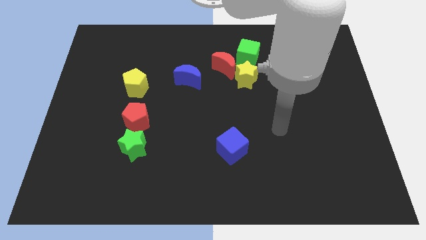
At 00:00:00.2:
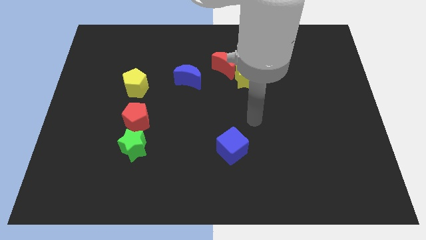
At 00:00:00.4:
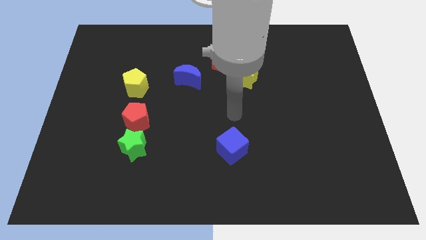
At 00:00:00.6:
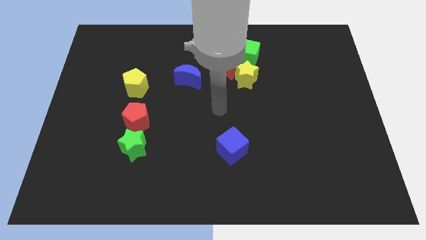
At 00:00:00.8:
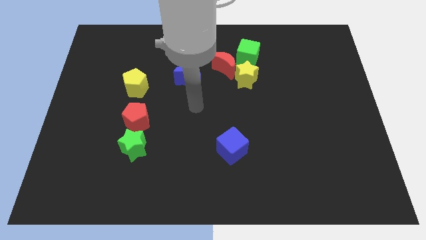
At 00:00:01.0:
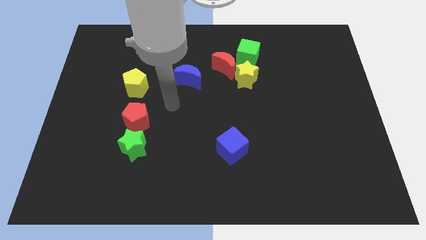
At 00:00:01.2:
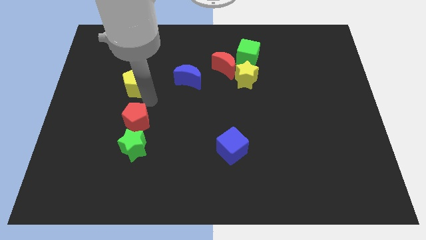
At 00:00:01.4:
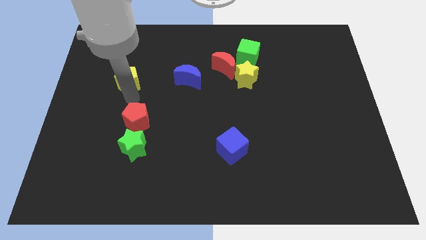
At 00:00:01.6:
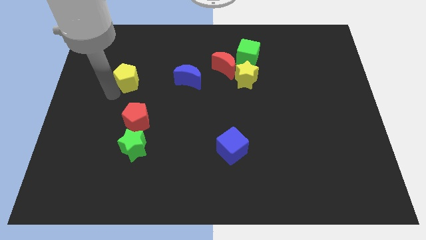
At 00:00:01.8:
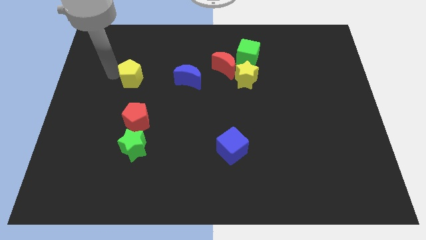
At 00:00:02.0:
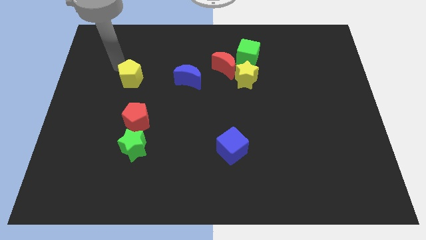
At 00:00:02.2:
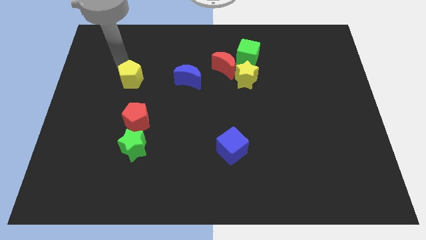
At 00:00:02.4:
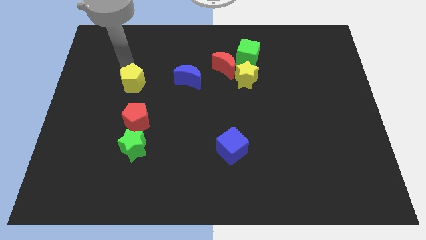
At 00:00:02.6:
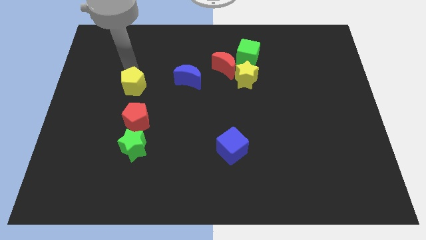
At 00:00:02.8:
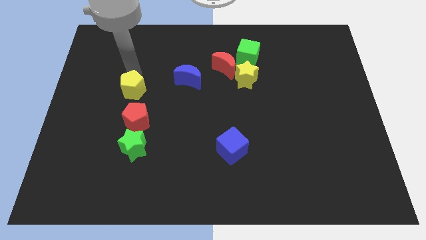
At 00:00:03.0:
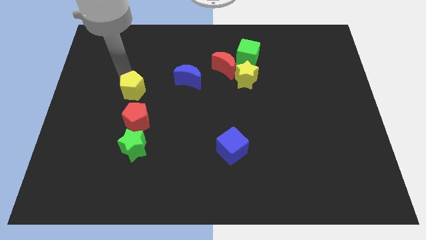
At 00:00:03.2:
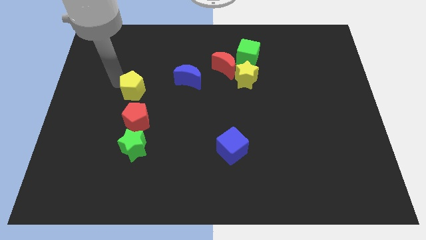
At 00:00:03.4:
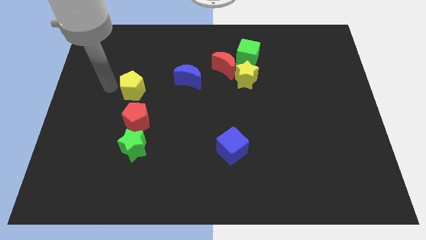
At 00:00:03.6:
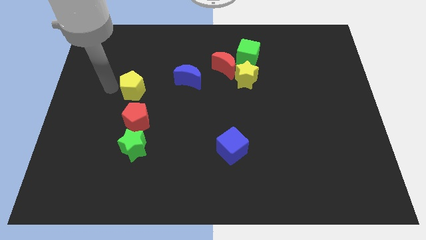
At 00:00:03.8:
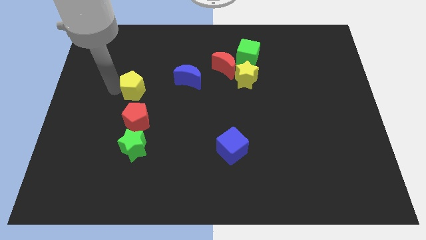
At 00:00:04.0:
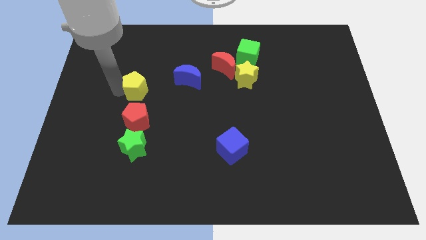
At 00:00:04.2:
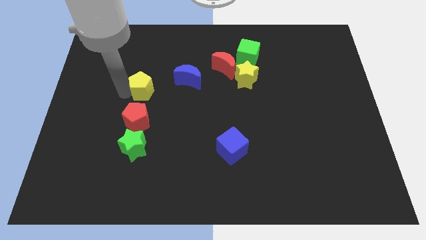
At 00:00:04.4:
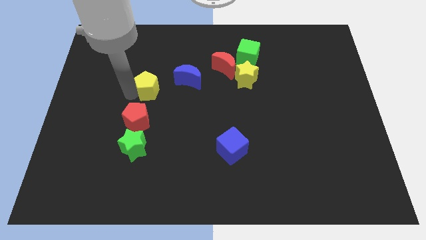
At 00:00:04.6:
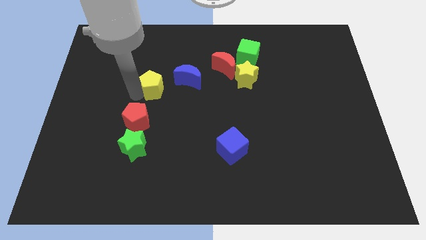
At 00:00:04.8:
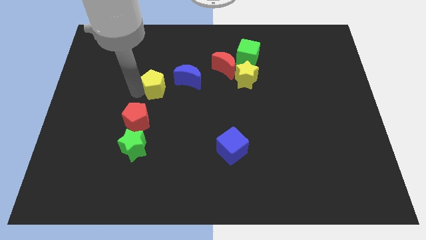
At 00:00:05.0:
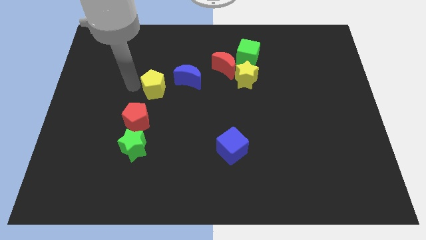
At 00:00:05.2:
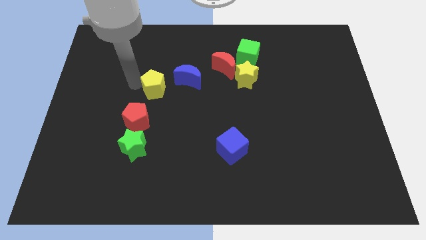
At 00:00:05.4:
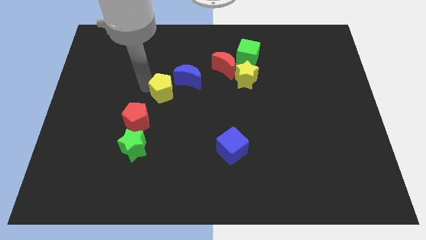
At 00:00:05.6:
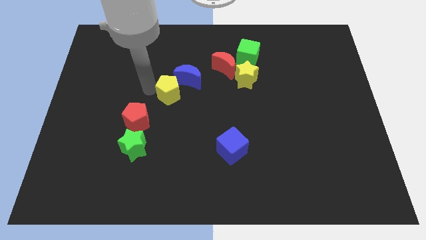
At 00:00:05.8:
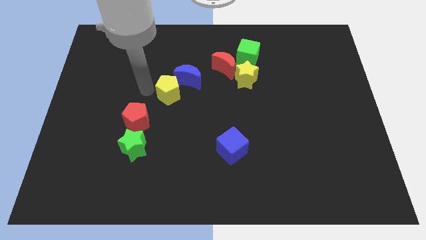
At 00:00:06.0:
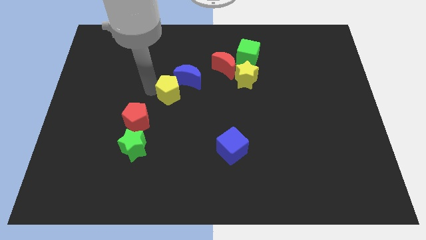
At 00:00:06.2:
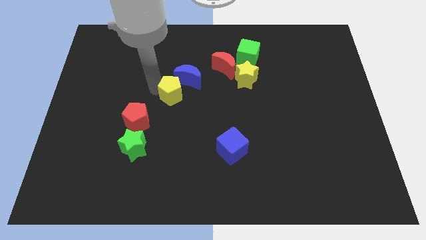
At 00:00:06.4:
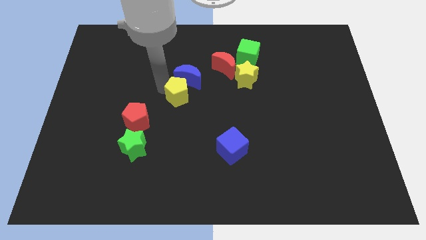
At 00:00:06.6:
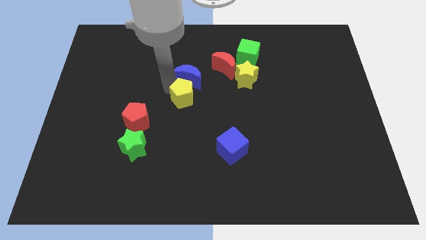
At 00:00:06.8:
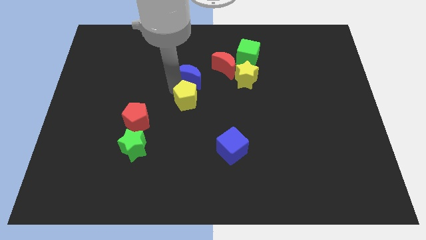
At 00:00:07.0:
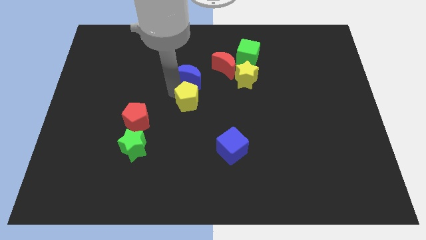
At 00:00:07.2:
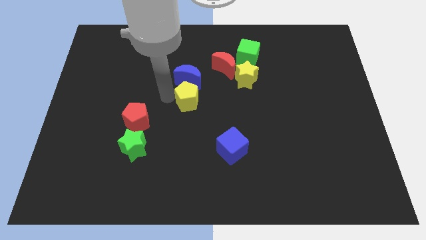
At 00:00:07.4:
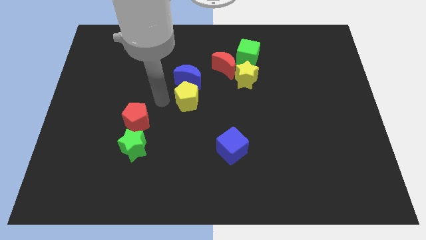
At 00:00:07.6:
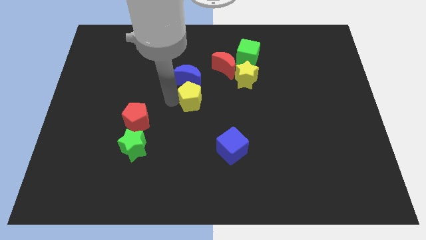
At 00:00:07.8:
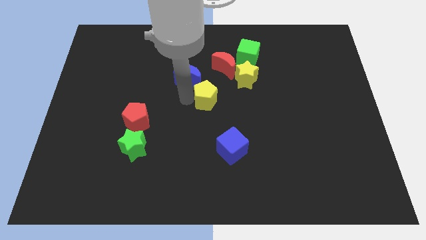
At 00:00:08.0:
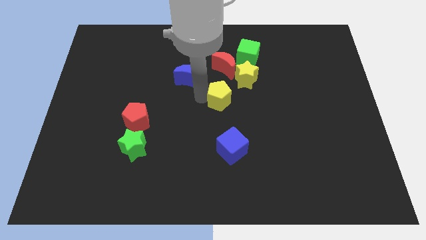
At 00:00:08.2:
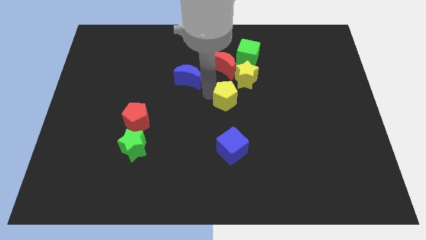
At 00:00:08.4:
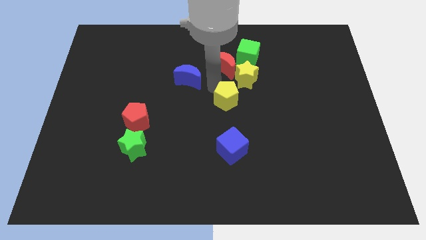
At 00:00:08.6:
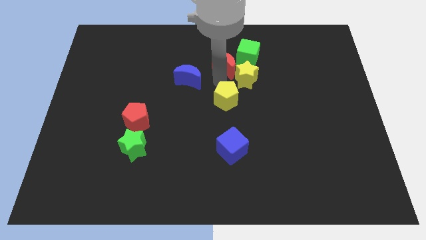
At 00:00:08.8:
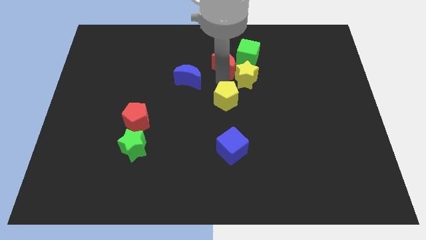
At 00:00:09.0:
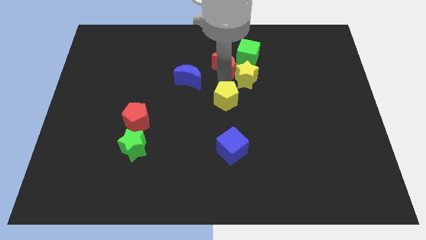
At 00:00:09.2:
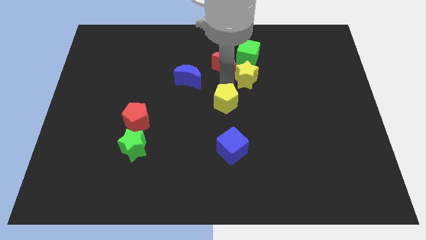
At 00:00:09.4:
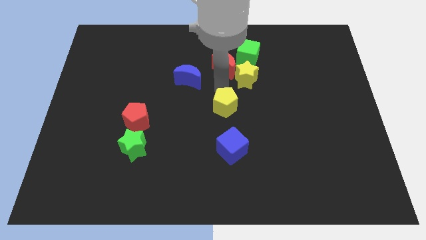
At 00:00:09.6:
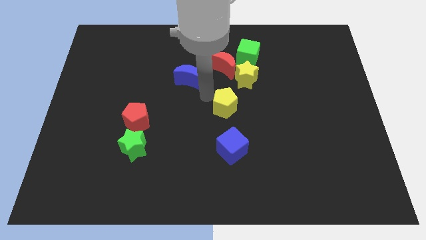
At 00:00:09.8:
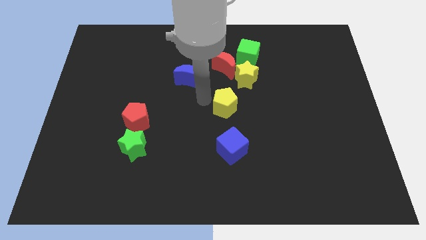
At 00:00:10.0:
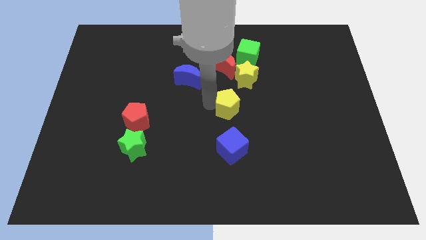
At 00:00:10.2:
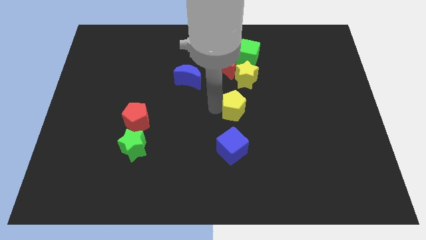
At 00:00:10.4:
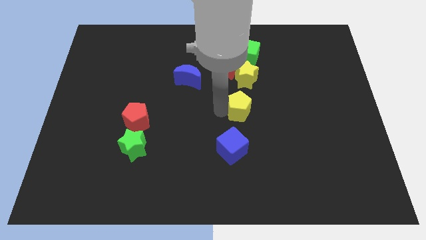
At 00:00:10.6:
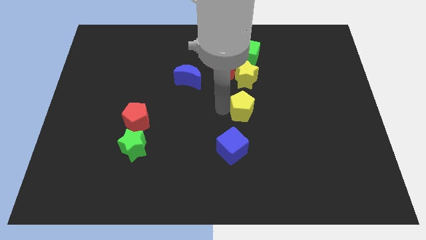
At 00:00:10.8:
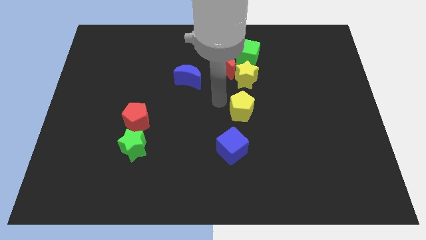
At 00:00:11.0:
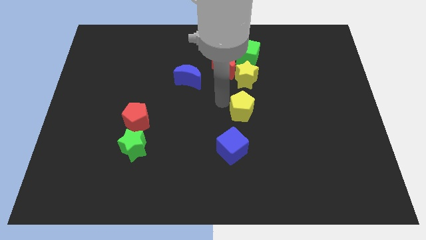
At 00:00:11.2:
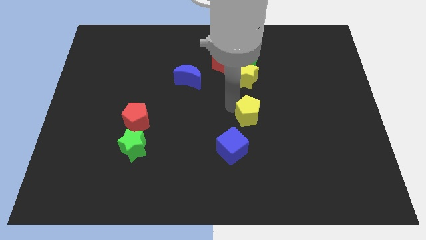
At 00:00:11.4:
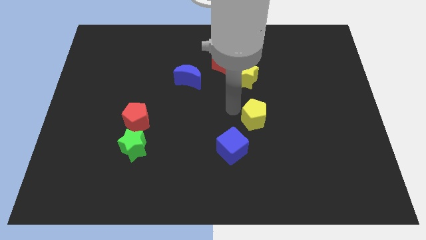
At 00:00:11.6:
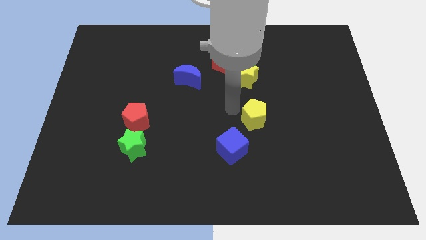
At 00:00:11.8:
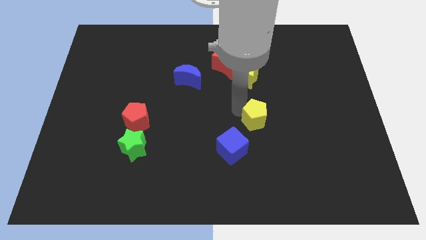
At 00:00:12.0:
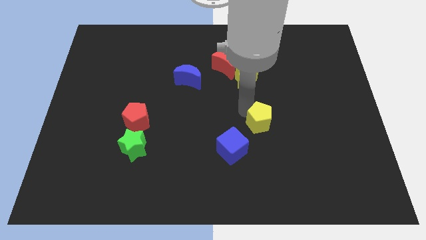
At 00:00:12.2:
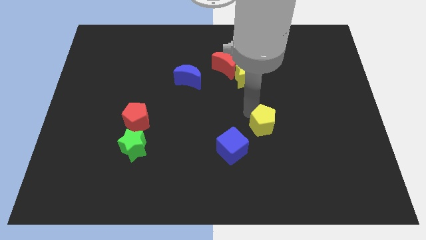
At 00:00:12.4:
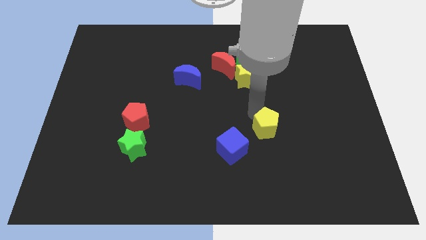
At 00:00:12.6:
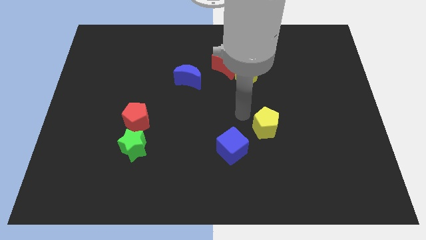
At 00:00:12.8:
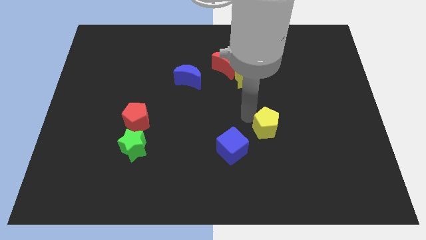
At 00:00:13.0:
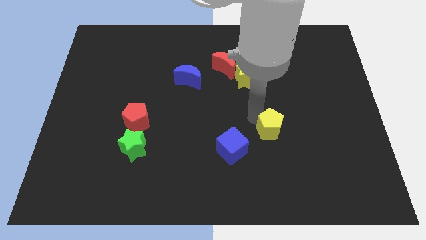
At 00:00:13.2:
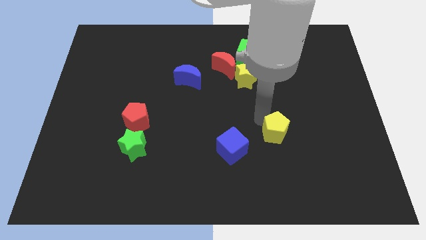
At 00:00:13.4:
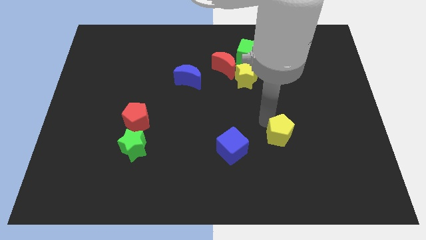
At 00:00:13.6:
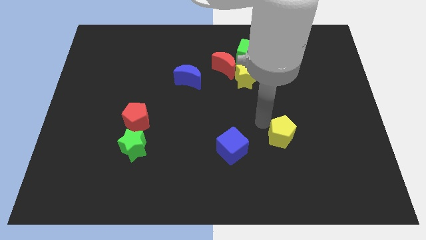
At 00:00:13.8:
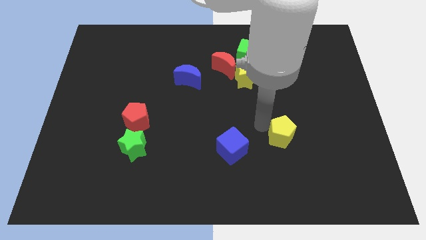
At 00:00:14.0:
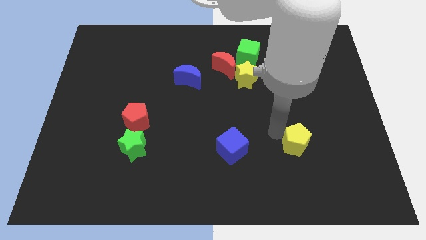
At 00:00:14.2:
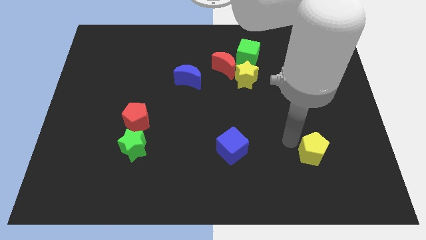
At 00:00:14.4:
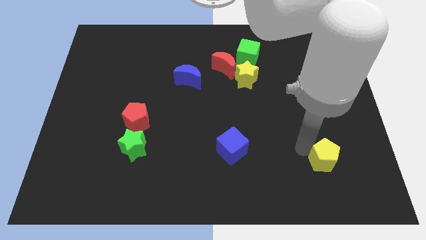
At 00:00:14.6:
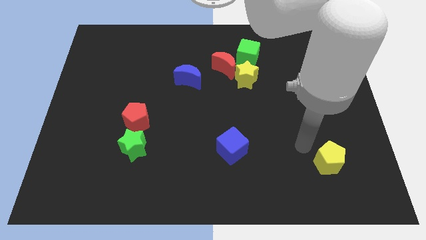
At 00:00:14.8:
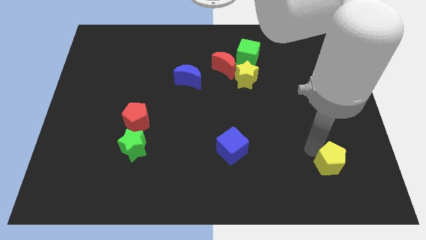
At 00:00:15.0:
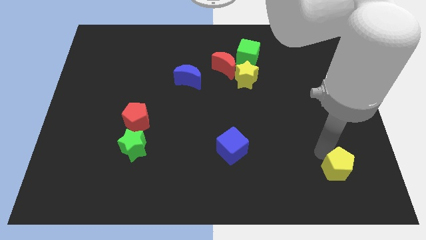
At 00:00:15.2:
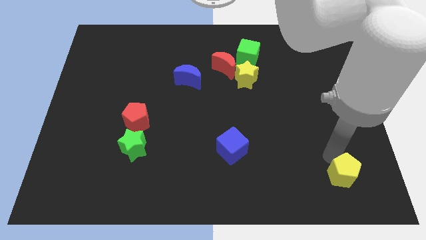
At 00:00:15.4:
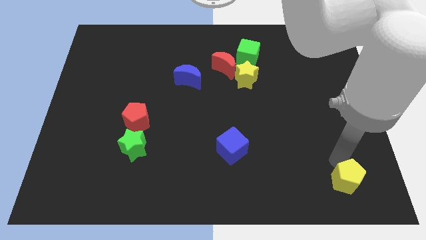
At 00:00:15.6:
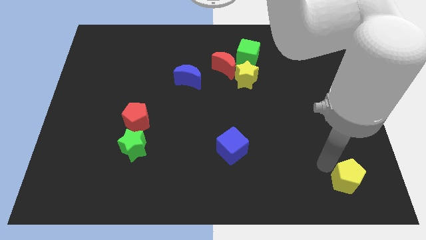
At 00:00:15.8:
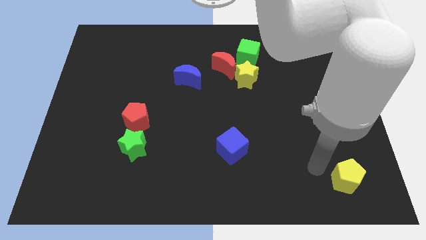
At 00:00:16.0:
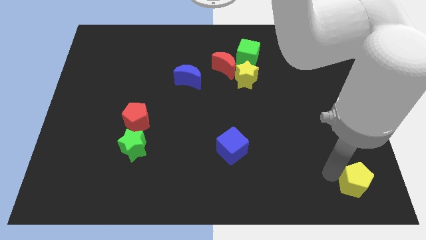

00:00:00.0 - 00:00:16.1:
slide the yellow pentagon to the bottom right of the board
